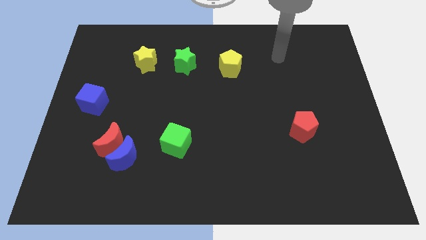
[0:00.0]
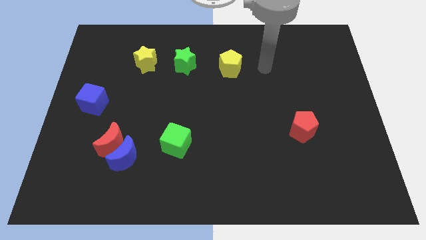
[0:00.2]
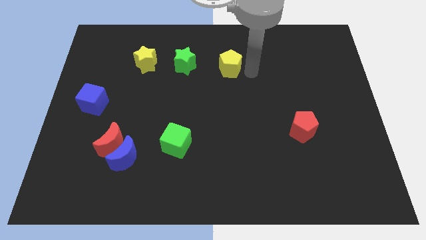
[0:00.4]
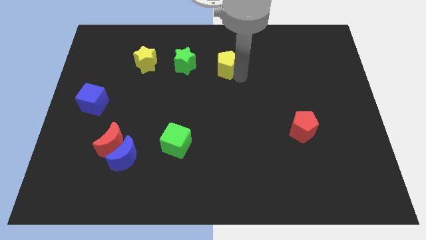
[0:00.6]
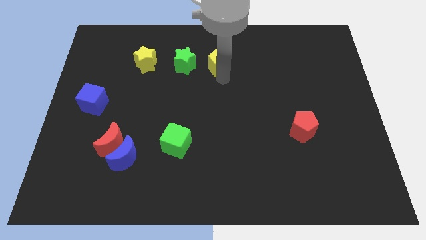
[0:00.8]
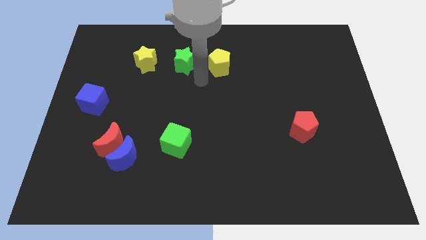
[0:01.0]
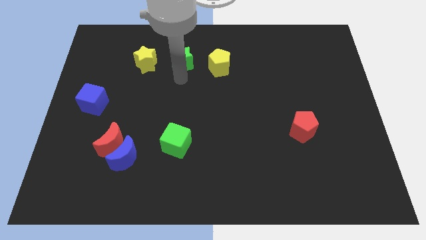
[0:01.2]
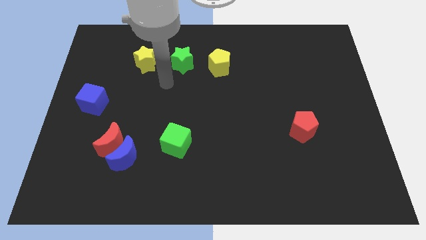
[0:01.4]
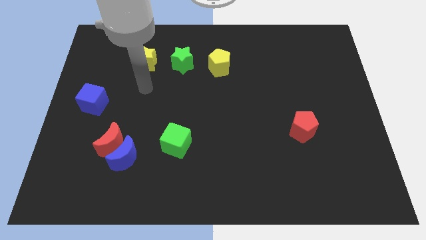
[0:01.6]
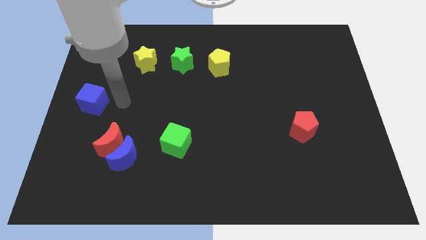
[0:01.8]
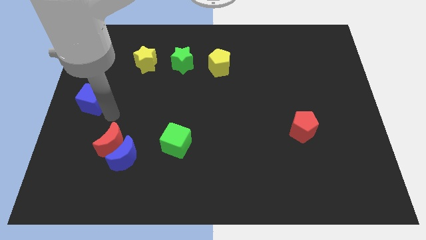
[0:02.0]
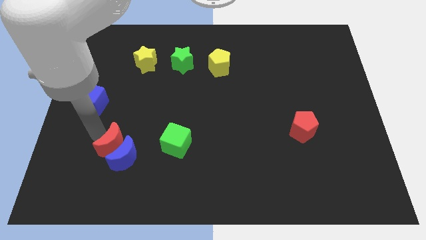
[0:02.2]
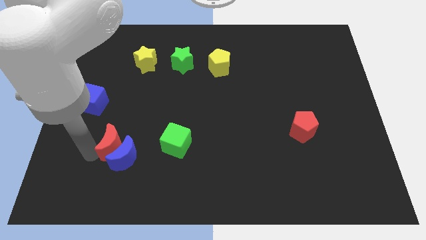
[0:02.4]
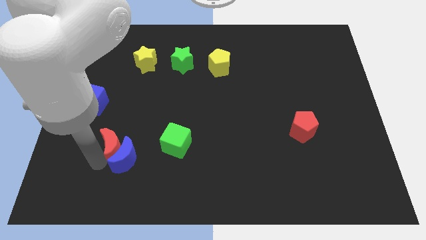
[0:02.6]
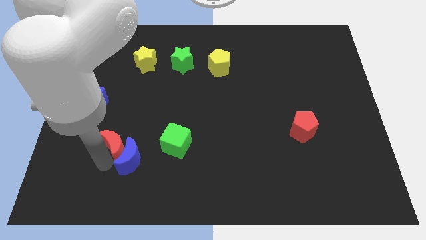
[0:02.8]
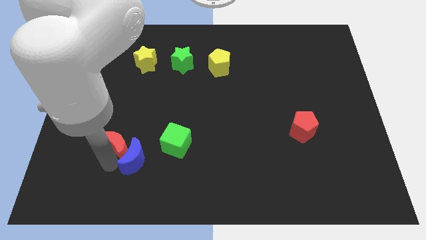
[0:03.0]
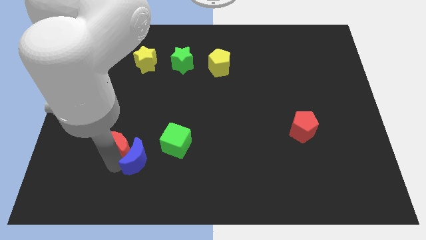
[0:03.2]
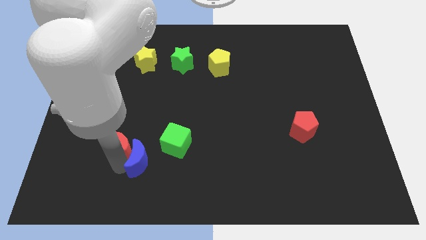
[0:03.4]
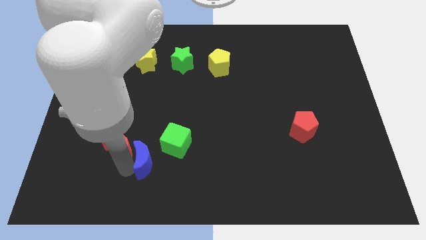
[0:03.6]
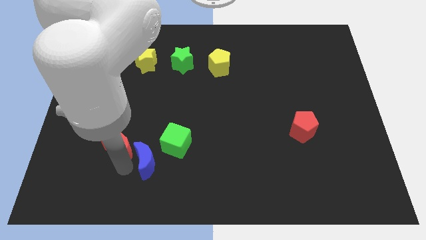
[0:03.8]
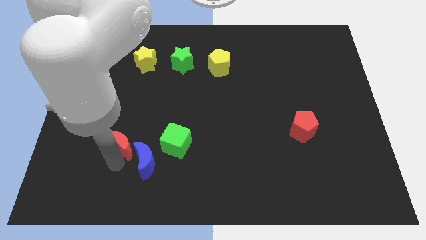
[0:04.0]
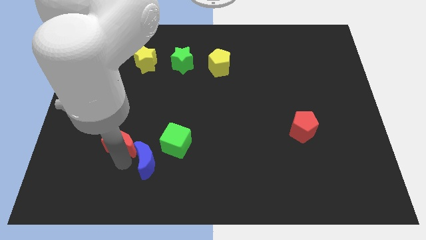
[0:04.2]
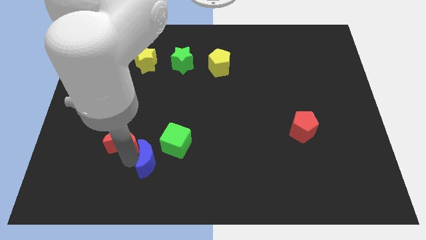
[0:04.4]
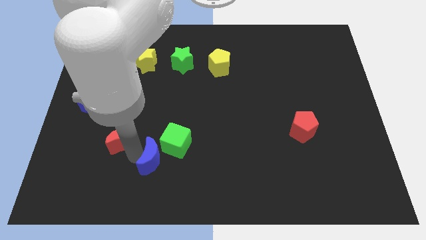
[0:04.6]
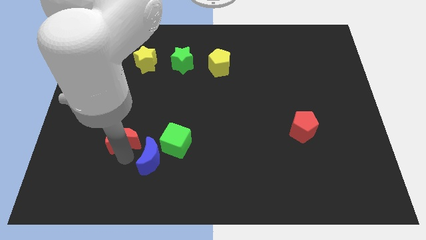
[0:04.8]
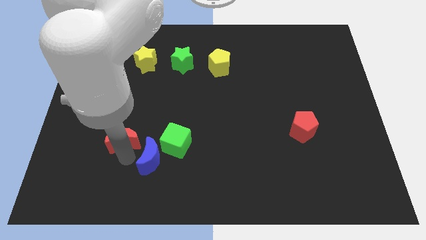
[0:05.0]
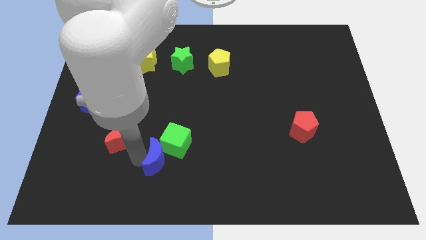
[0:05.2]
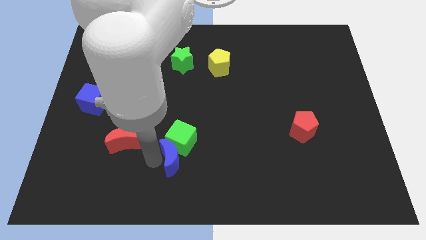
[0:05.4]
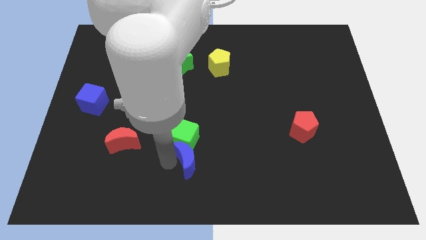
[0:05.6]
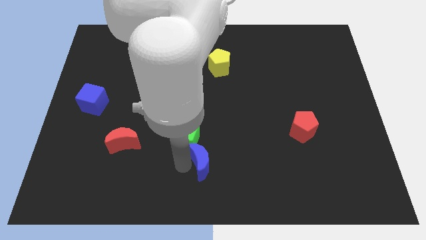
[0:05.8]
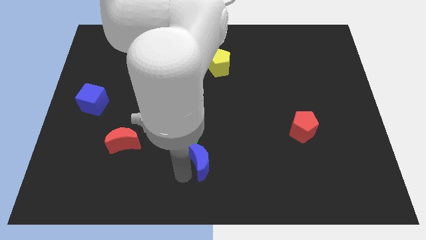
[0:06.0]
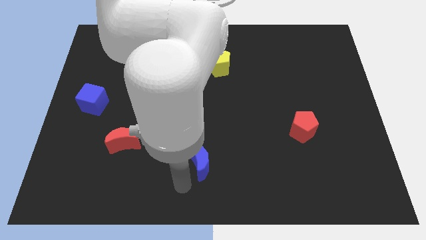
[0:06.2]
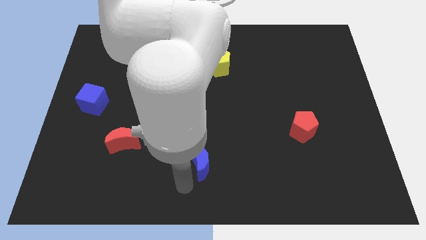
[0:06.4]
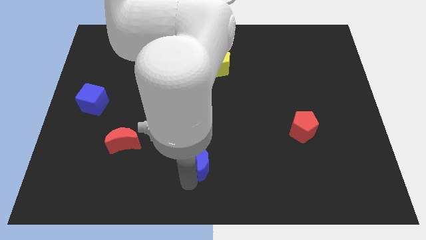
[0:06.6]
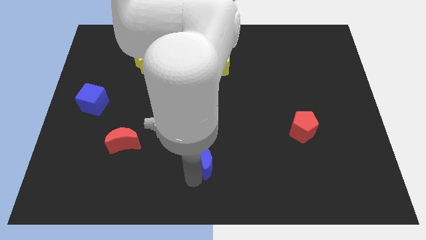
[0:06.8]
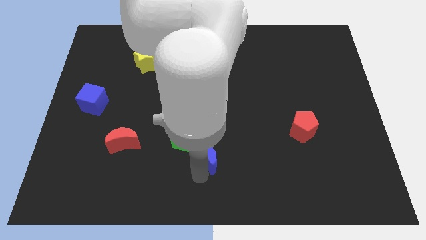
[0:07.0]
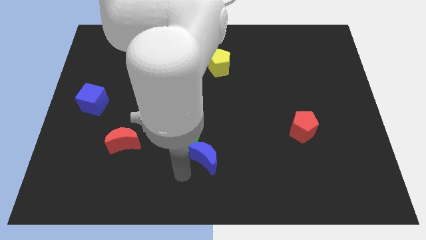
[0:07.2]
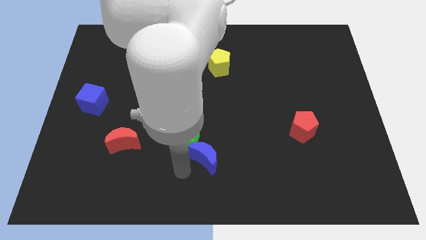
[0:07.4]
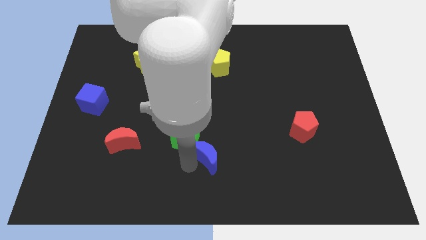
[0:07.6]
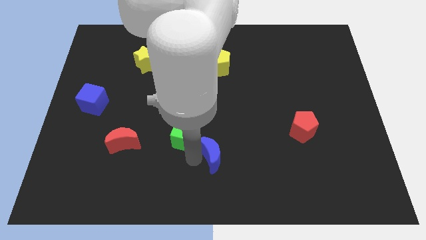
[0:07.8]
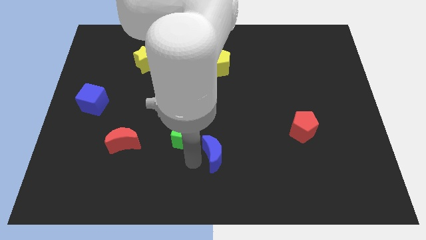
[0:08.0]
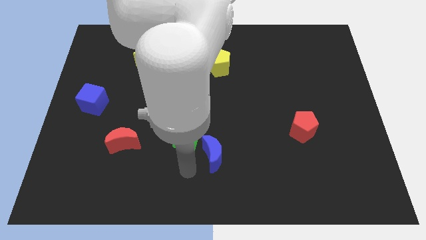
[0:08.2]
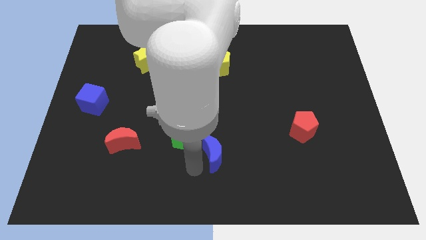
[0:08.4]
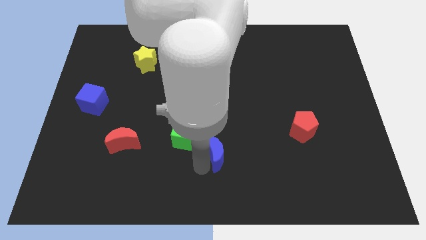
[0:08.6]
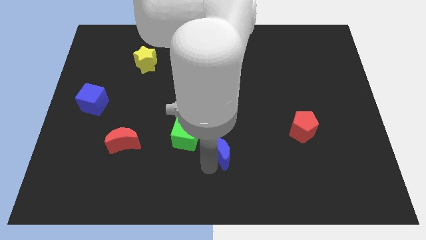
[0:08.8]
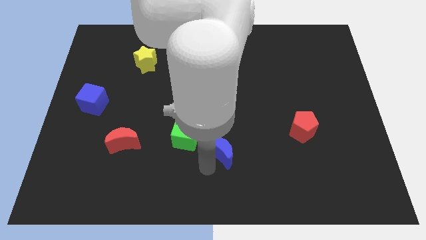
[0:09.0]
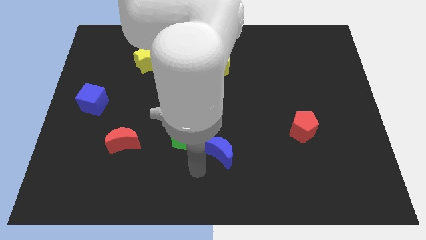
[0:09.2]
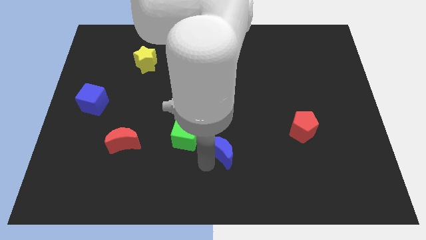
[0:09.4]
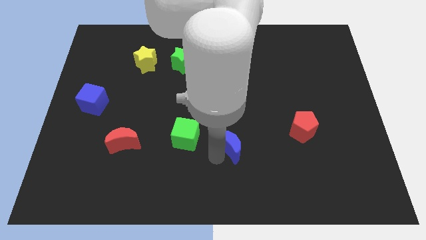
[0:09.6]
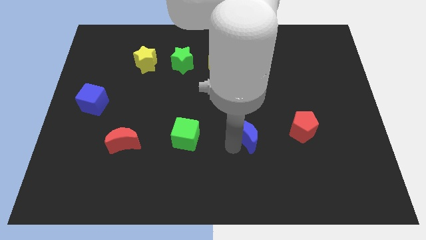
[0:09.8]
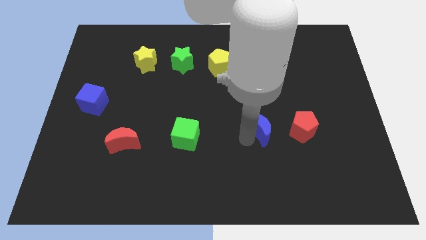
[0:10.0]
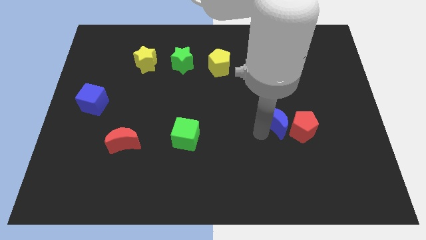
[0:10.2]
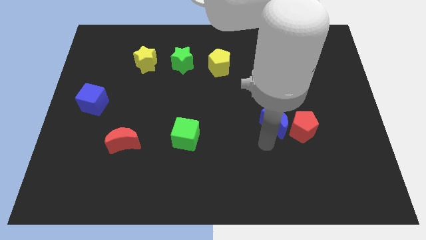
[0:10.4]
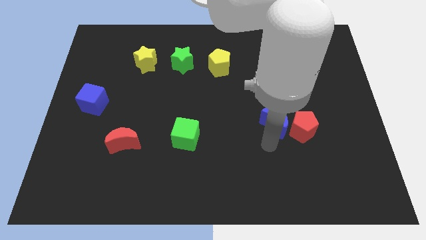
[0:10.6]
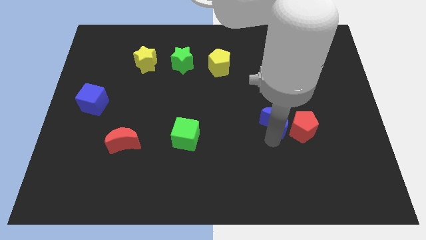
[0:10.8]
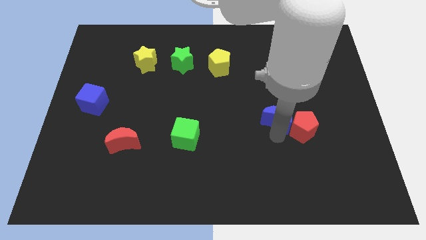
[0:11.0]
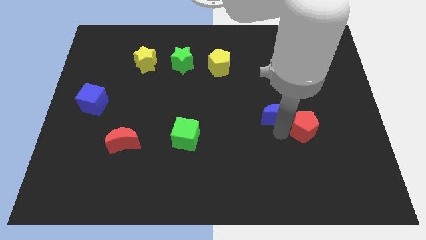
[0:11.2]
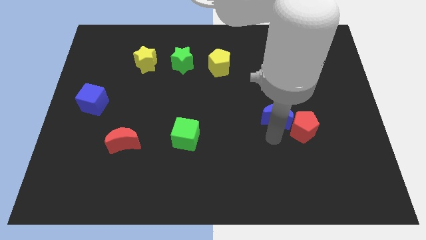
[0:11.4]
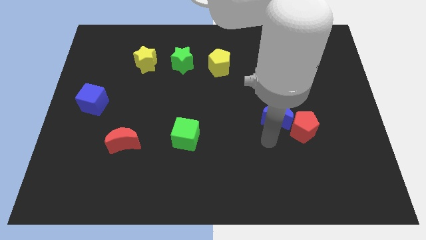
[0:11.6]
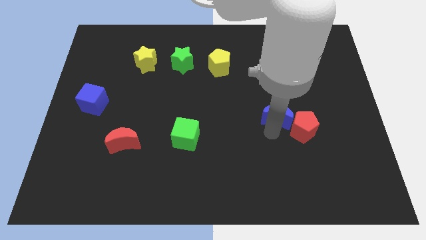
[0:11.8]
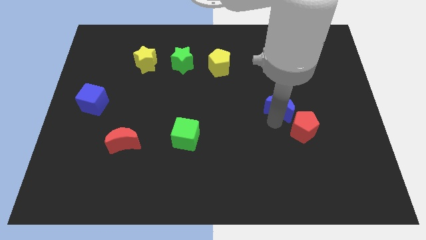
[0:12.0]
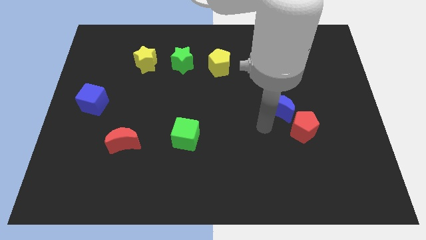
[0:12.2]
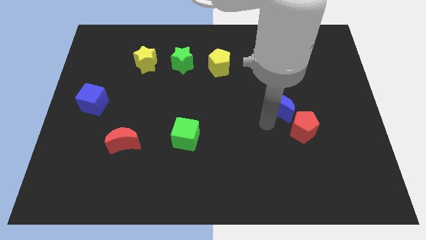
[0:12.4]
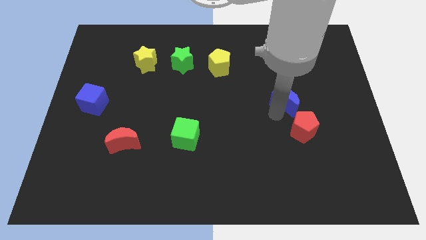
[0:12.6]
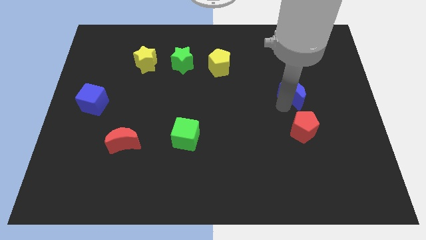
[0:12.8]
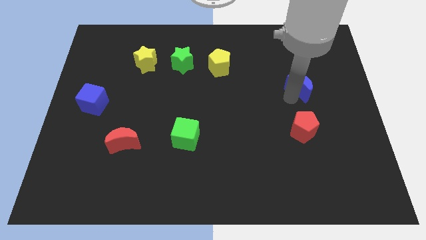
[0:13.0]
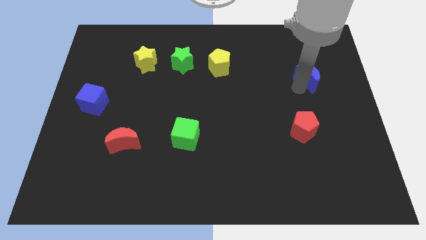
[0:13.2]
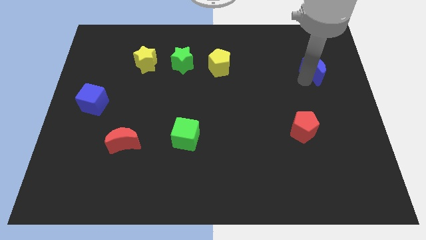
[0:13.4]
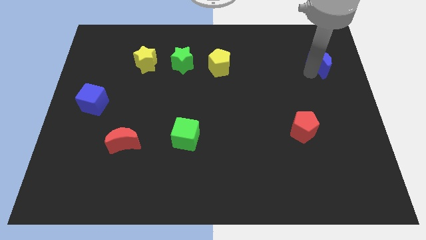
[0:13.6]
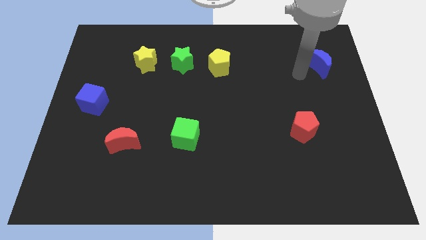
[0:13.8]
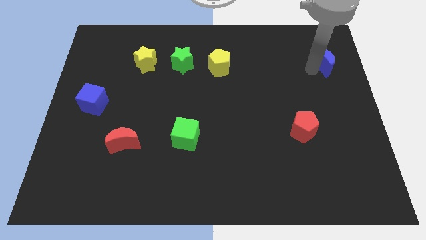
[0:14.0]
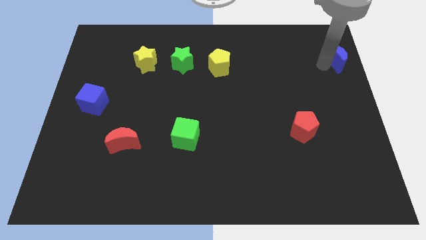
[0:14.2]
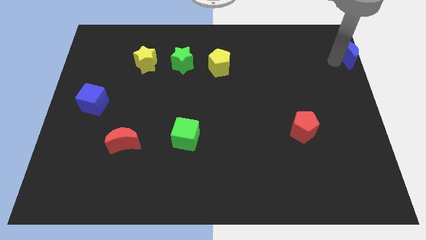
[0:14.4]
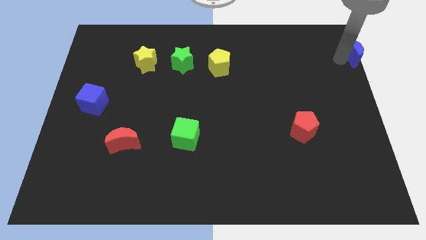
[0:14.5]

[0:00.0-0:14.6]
slide the blue moon to the top right corner
